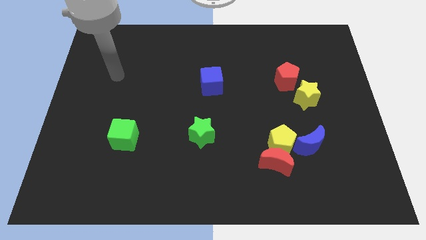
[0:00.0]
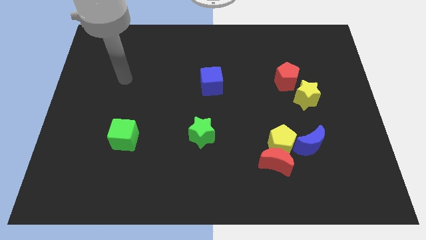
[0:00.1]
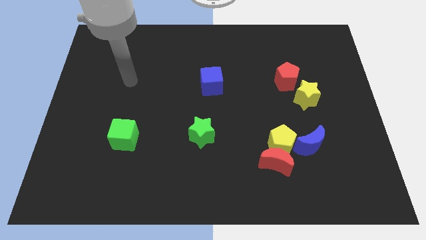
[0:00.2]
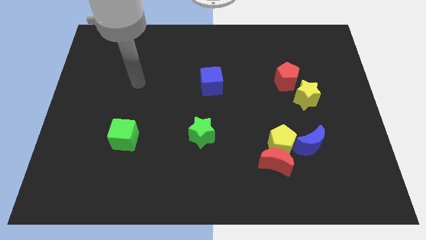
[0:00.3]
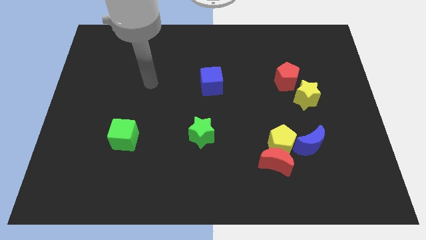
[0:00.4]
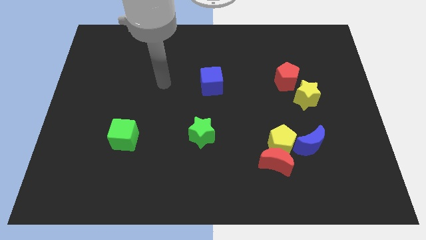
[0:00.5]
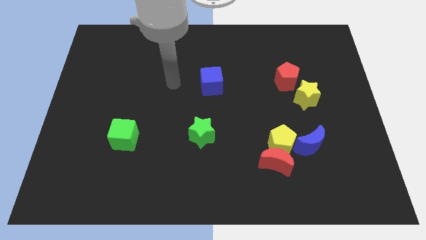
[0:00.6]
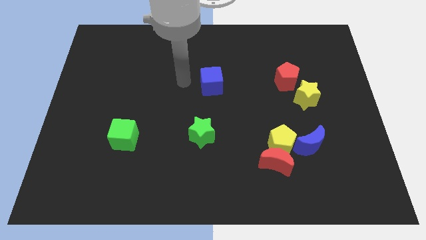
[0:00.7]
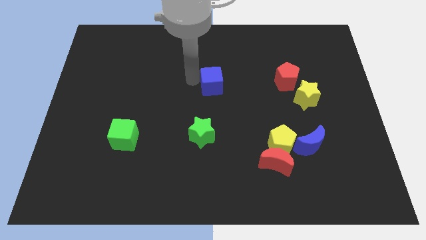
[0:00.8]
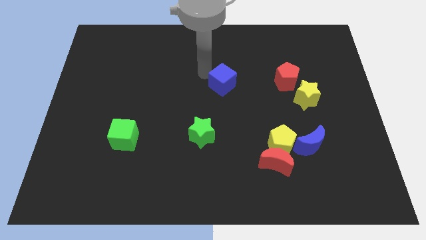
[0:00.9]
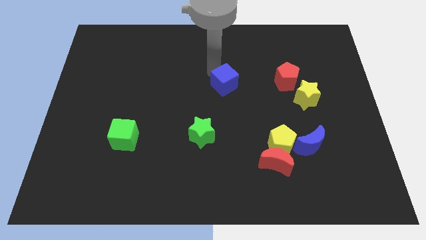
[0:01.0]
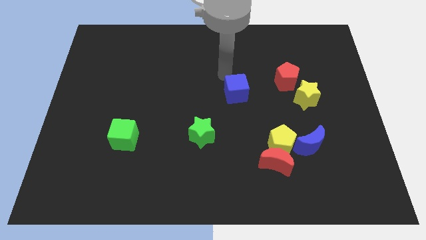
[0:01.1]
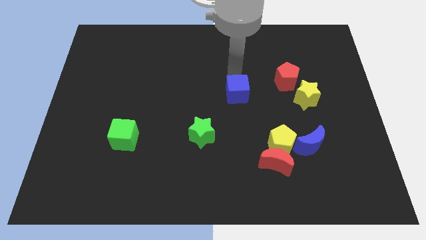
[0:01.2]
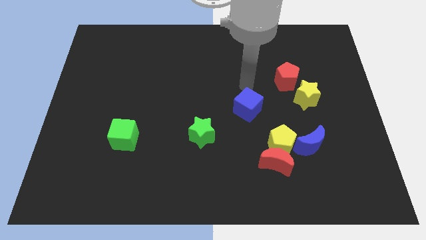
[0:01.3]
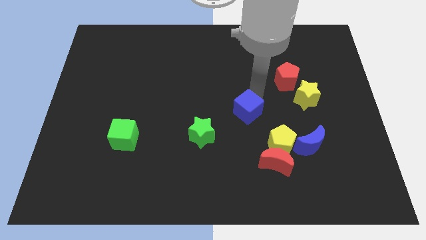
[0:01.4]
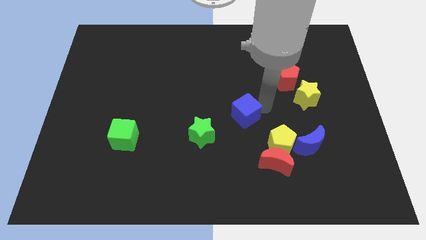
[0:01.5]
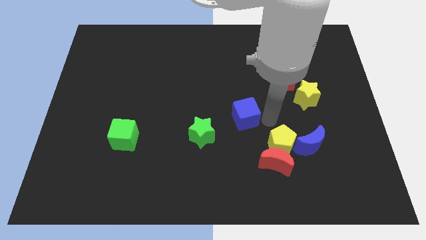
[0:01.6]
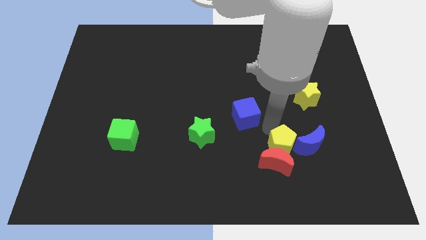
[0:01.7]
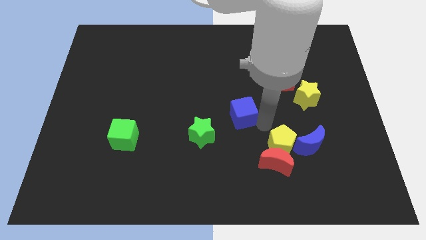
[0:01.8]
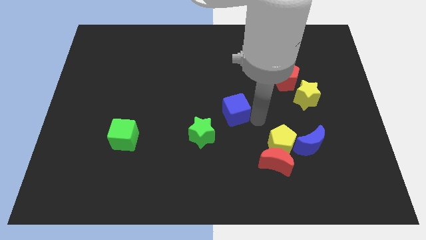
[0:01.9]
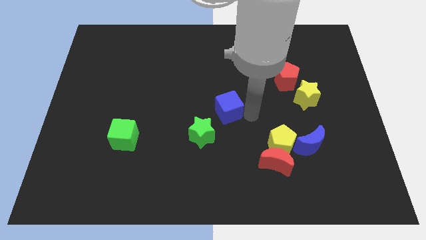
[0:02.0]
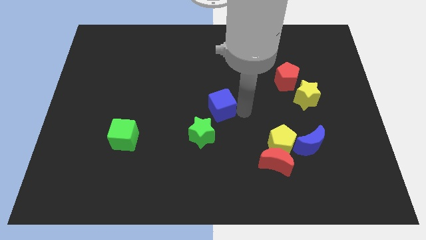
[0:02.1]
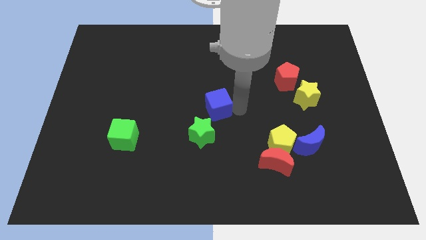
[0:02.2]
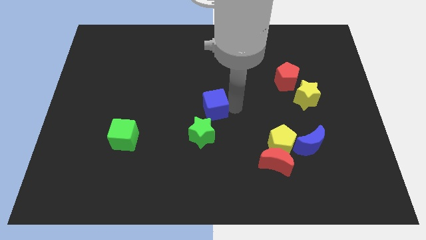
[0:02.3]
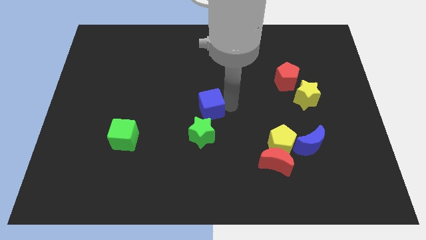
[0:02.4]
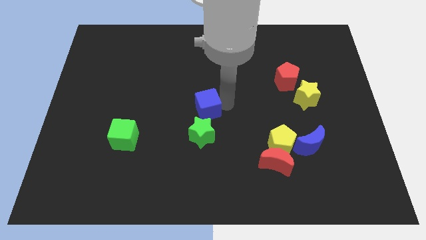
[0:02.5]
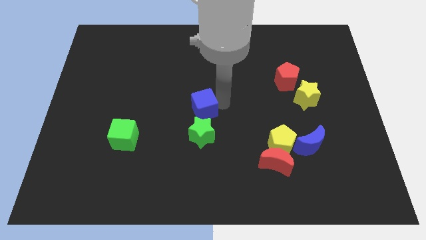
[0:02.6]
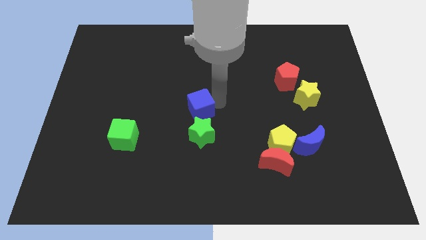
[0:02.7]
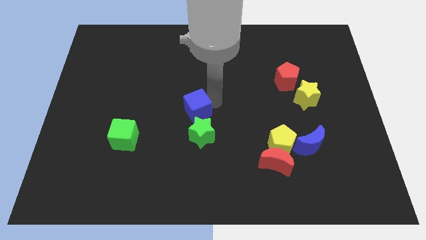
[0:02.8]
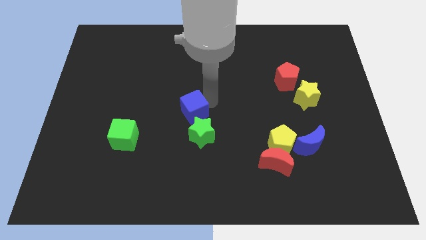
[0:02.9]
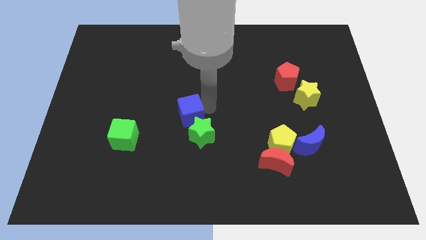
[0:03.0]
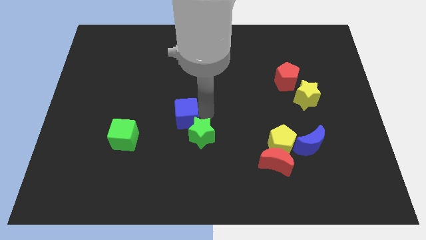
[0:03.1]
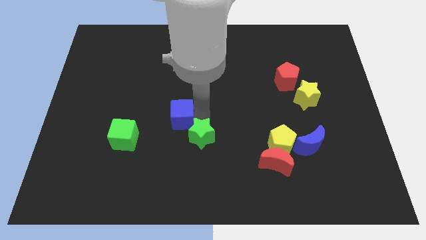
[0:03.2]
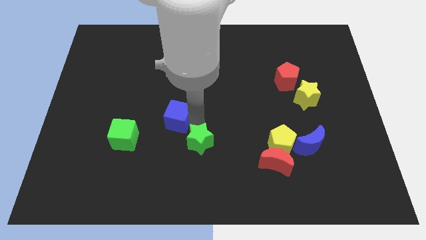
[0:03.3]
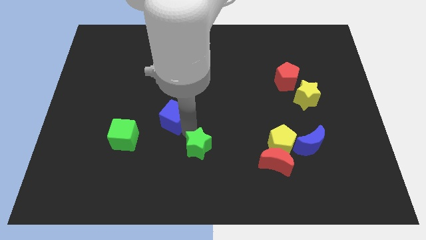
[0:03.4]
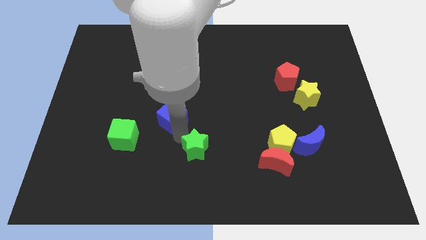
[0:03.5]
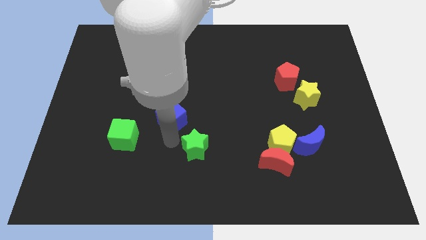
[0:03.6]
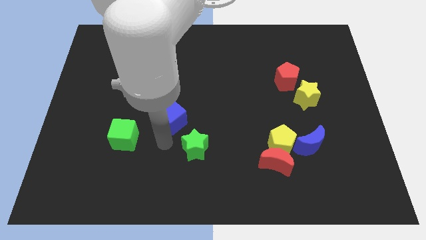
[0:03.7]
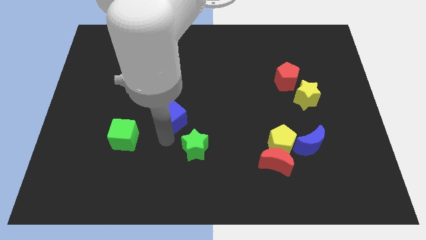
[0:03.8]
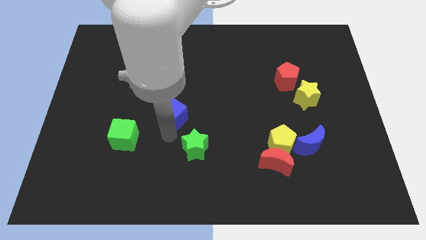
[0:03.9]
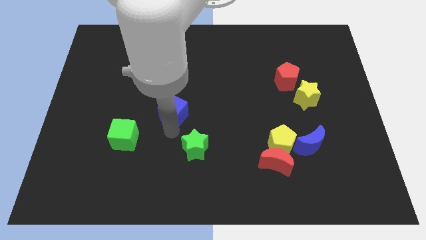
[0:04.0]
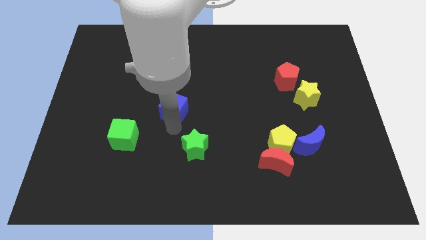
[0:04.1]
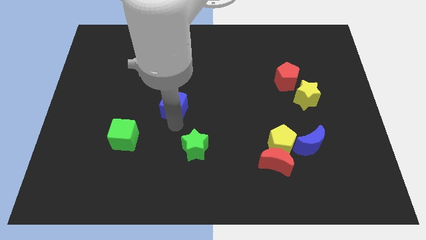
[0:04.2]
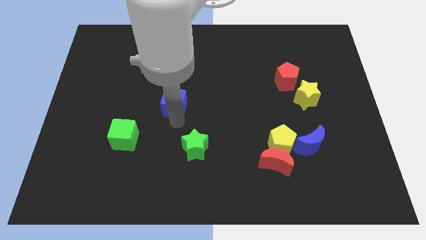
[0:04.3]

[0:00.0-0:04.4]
move the blue cube a little left

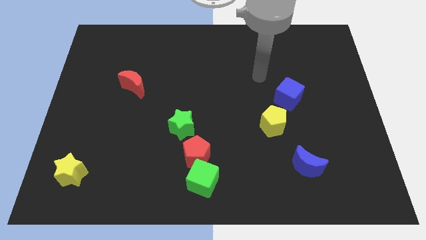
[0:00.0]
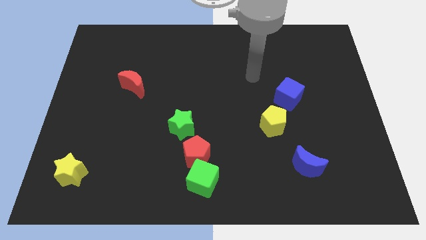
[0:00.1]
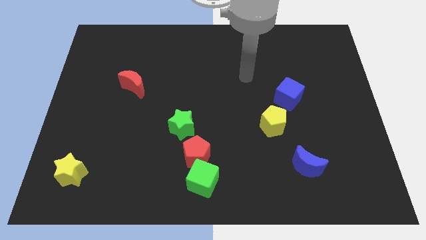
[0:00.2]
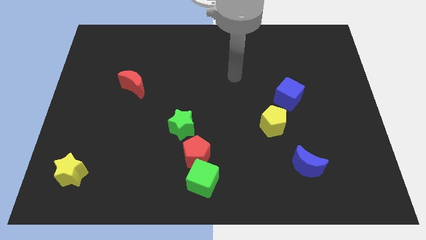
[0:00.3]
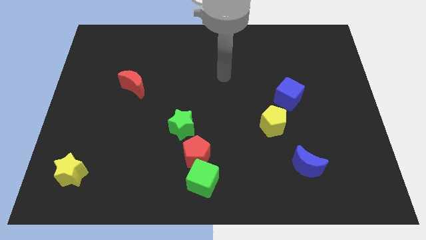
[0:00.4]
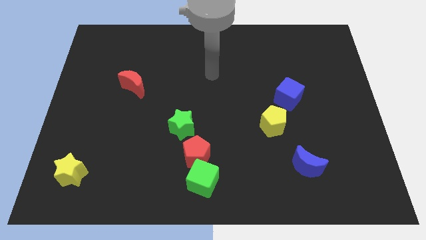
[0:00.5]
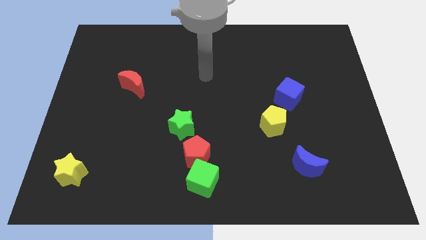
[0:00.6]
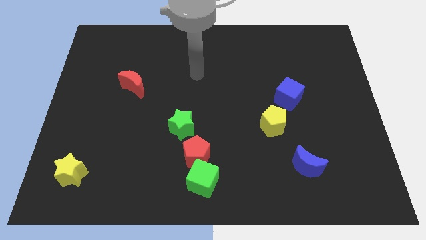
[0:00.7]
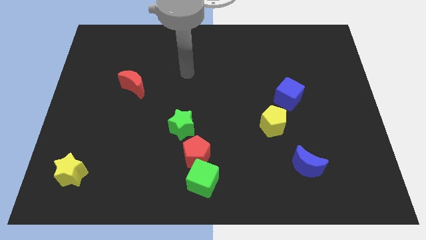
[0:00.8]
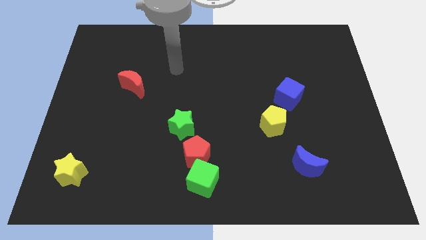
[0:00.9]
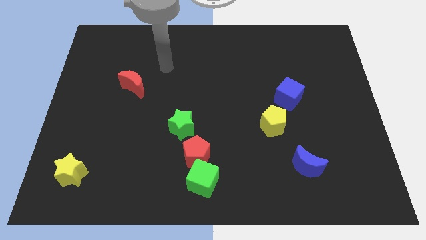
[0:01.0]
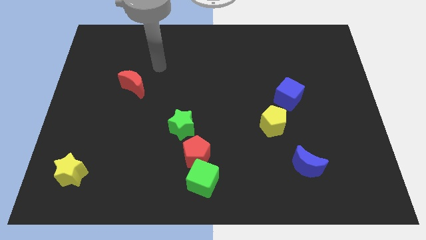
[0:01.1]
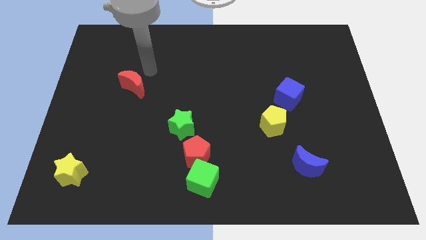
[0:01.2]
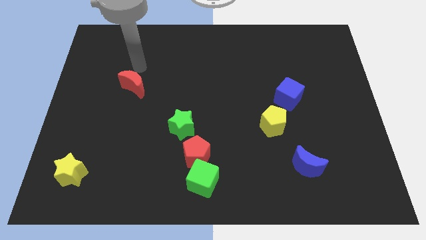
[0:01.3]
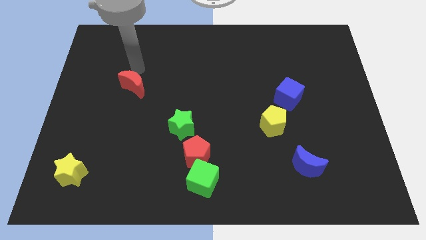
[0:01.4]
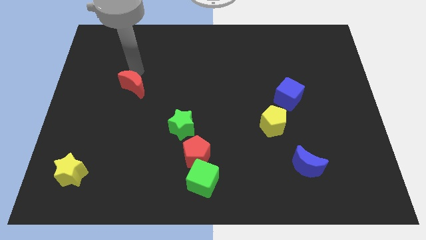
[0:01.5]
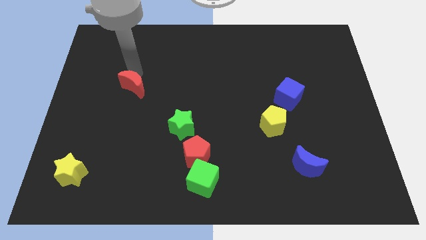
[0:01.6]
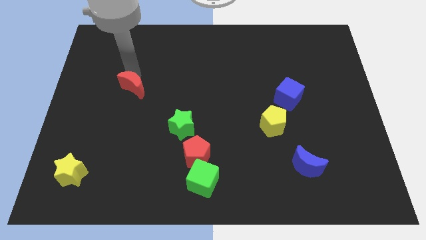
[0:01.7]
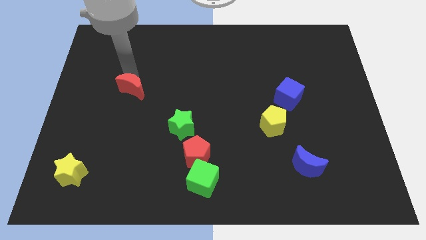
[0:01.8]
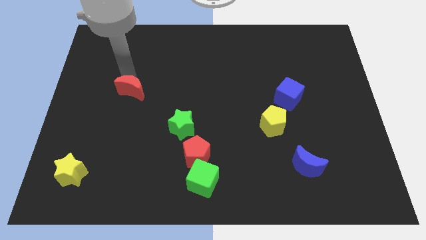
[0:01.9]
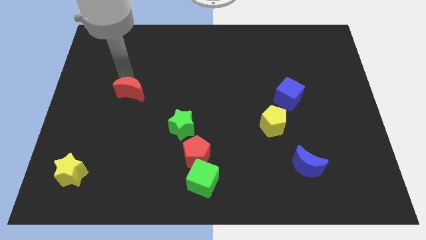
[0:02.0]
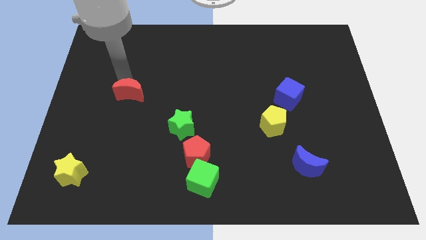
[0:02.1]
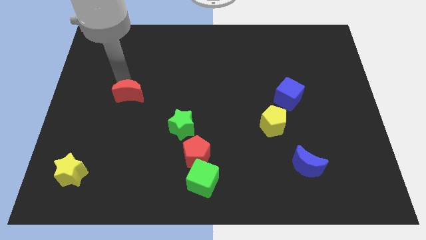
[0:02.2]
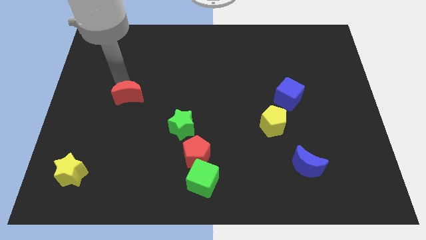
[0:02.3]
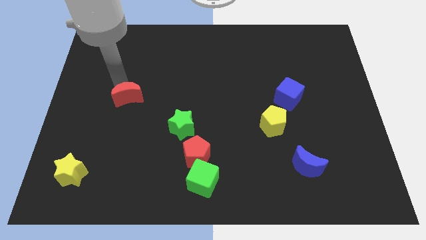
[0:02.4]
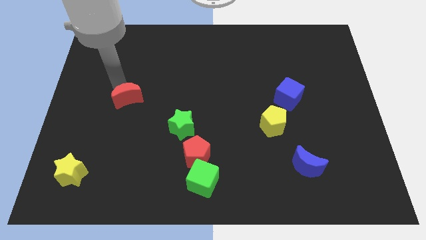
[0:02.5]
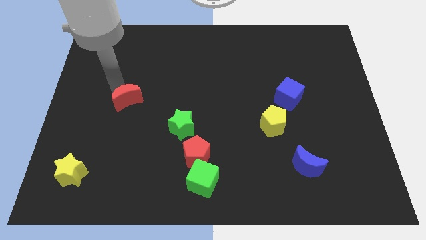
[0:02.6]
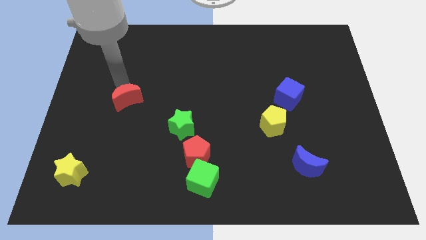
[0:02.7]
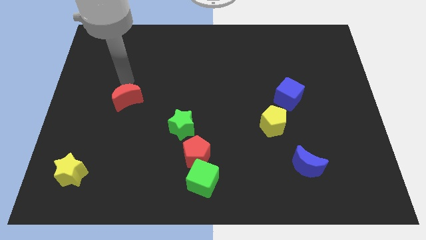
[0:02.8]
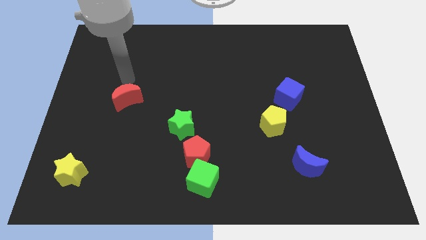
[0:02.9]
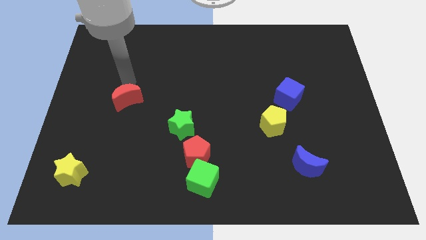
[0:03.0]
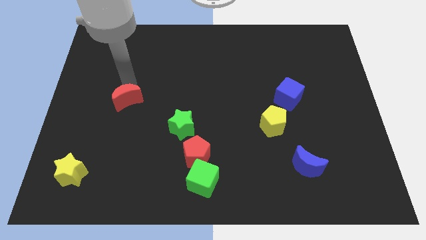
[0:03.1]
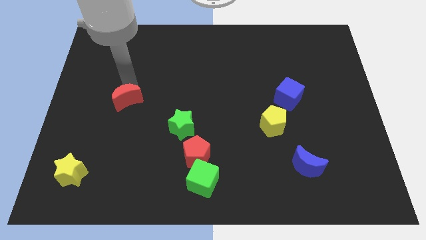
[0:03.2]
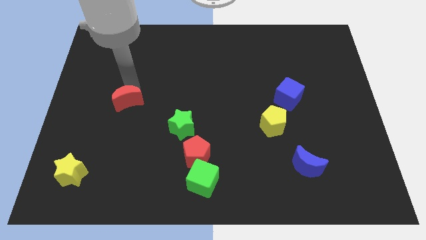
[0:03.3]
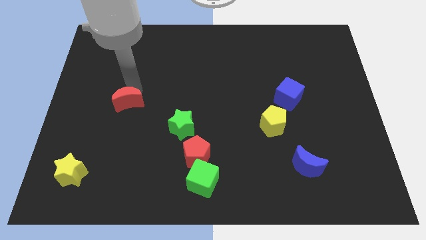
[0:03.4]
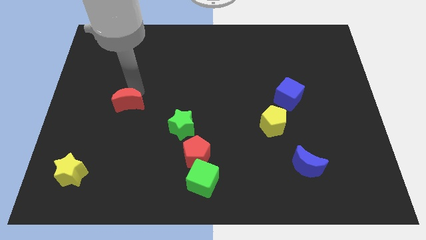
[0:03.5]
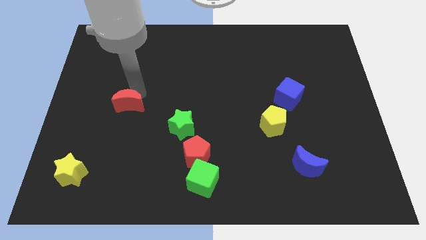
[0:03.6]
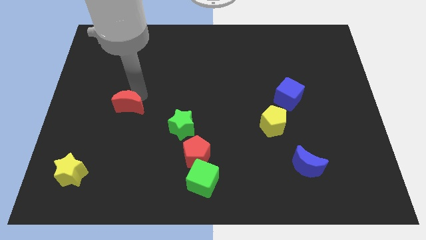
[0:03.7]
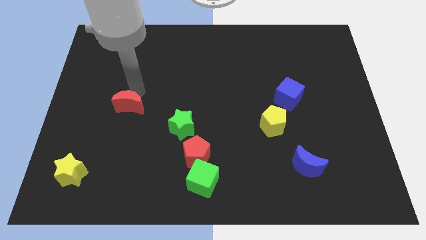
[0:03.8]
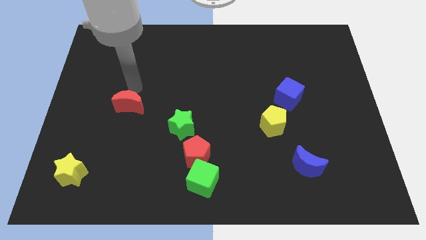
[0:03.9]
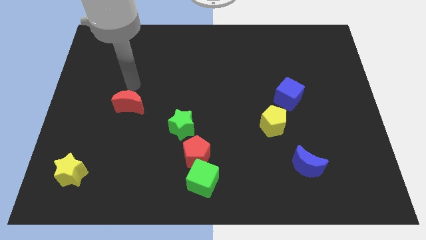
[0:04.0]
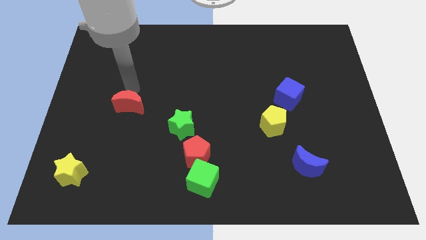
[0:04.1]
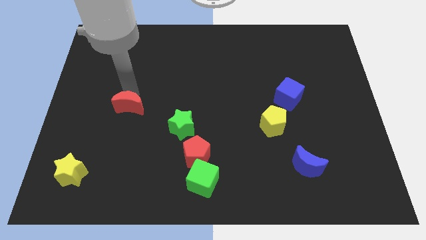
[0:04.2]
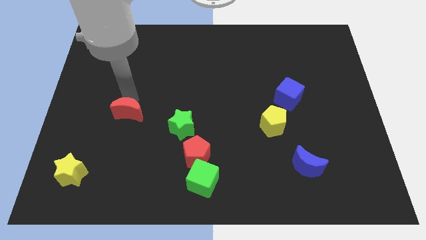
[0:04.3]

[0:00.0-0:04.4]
push the red moon a bit down
